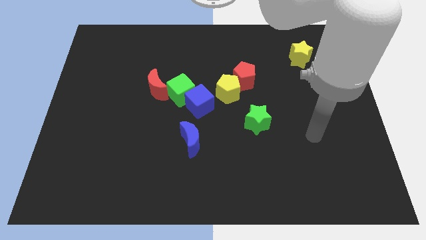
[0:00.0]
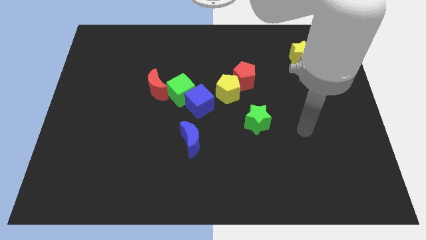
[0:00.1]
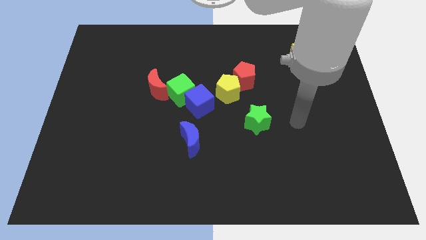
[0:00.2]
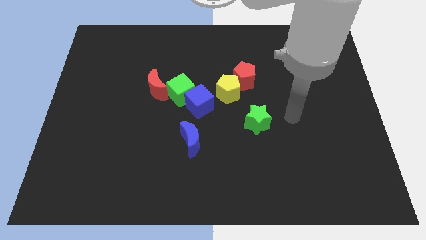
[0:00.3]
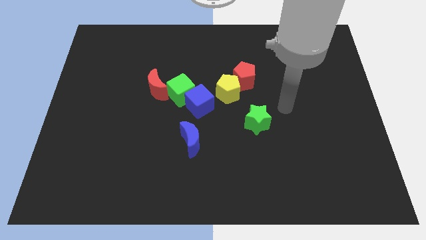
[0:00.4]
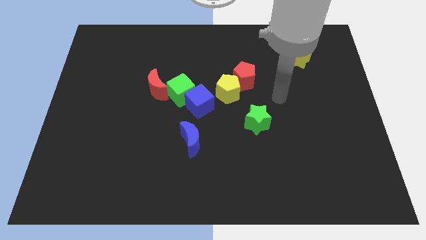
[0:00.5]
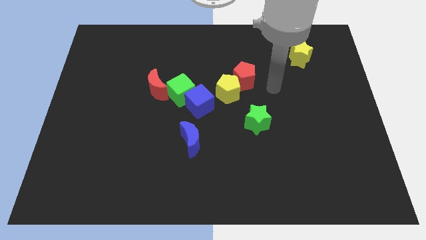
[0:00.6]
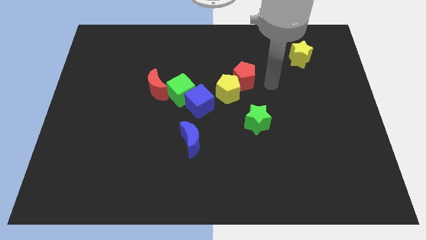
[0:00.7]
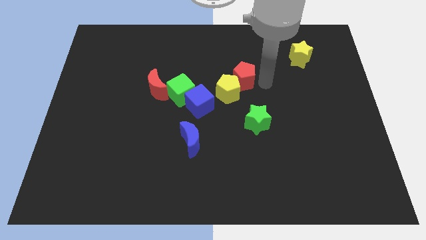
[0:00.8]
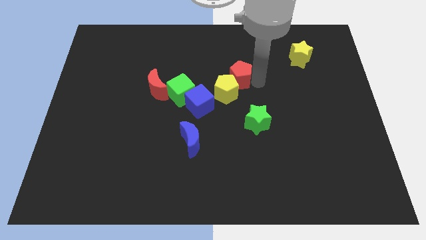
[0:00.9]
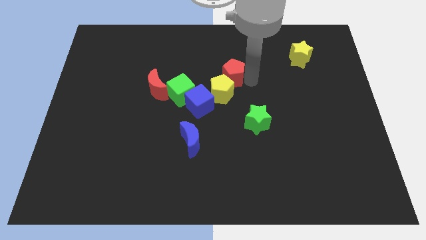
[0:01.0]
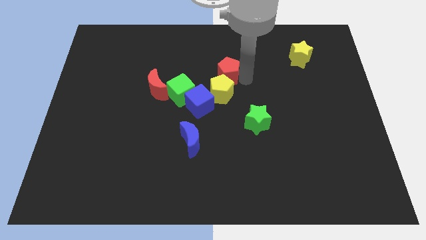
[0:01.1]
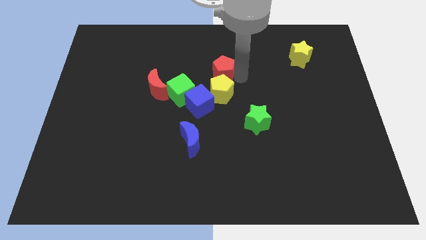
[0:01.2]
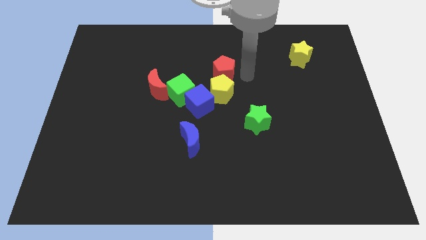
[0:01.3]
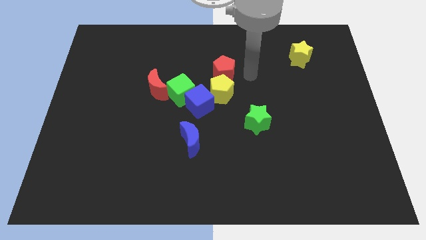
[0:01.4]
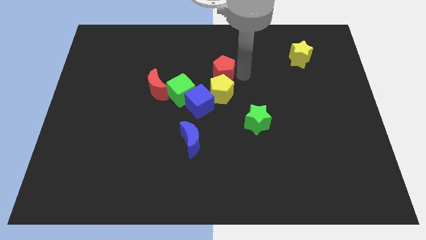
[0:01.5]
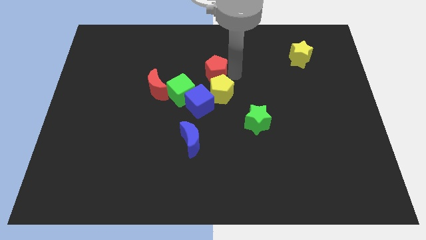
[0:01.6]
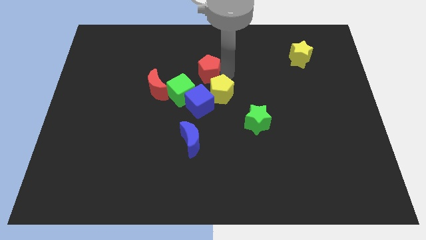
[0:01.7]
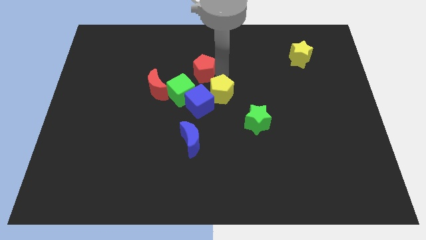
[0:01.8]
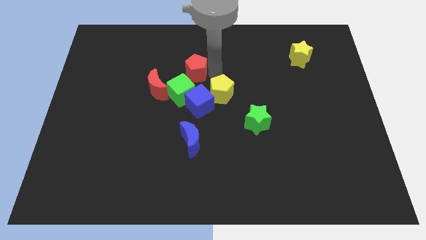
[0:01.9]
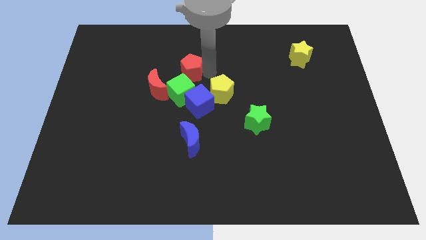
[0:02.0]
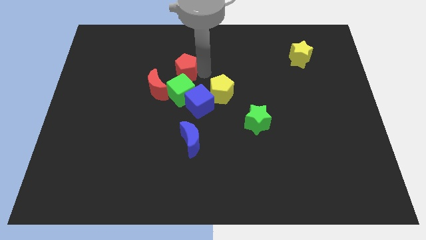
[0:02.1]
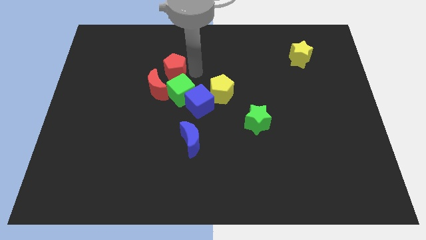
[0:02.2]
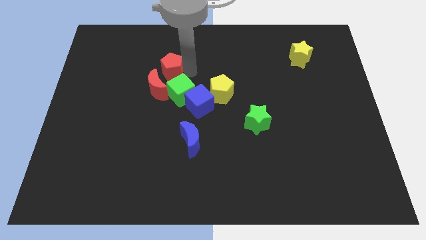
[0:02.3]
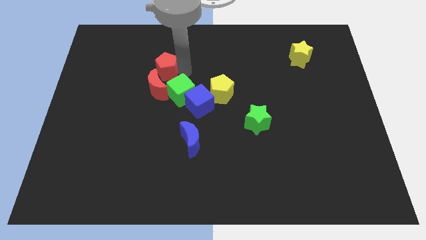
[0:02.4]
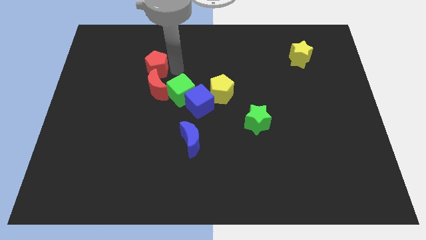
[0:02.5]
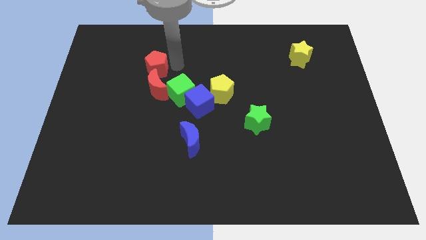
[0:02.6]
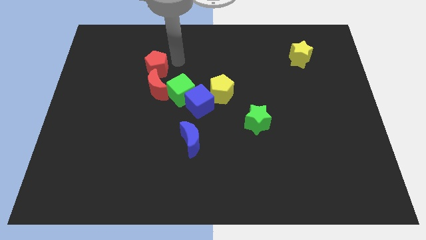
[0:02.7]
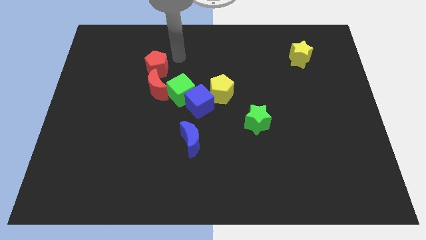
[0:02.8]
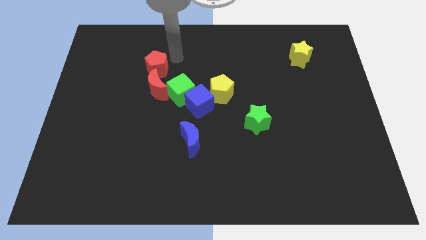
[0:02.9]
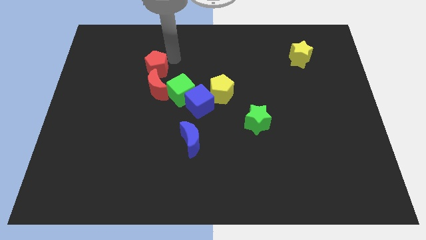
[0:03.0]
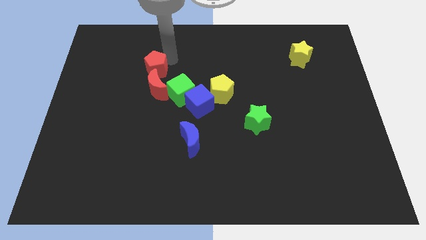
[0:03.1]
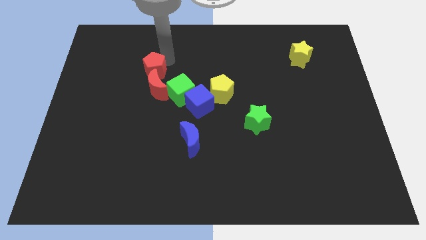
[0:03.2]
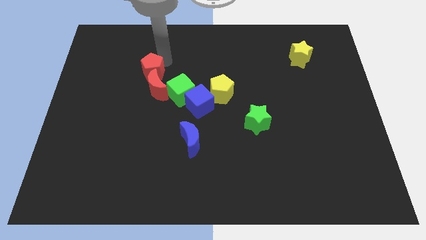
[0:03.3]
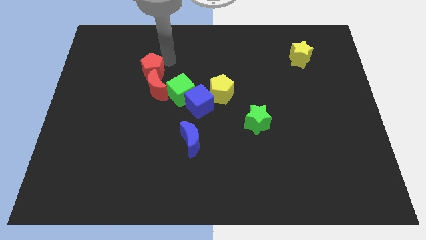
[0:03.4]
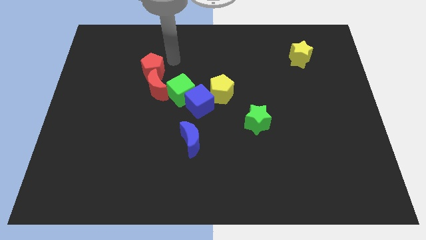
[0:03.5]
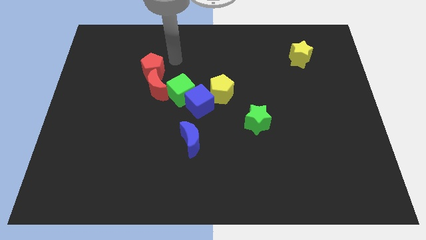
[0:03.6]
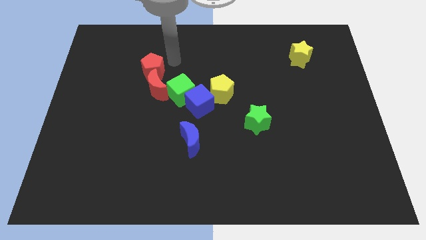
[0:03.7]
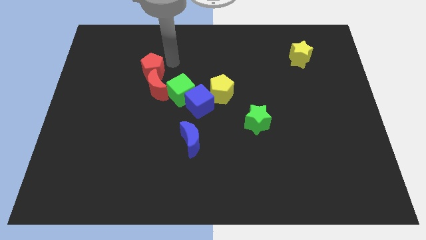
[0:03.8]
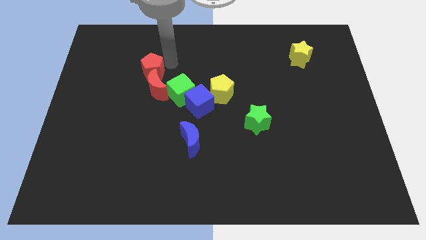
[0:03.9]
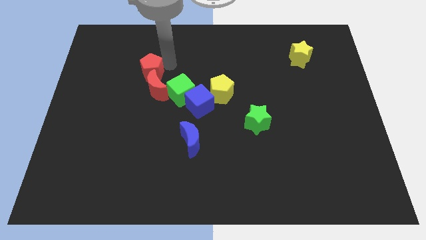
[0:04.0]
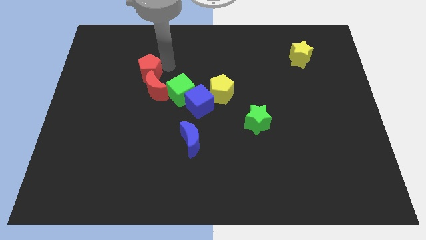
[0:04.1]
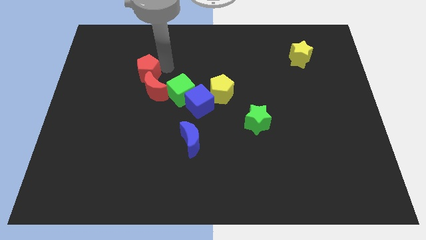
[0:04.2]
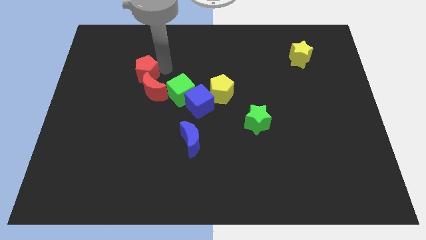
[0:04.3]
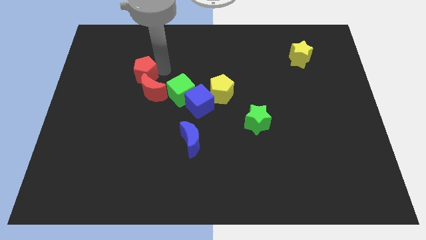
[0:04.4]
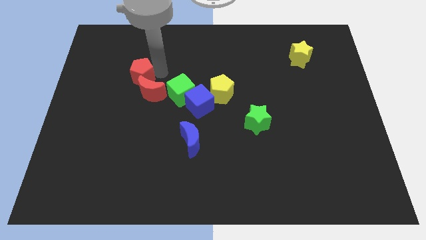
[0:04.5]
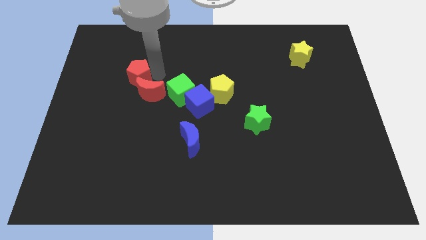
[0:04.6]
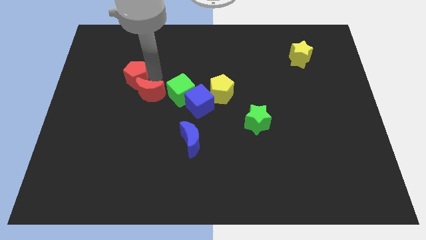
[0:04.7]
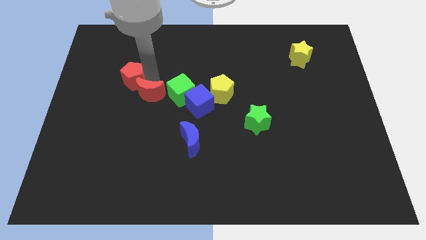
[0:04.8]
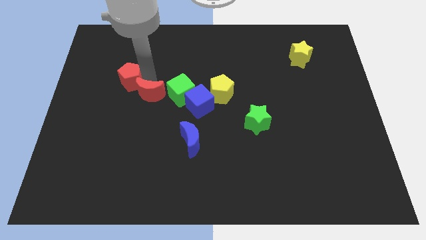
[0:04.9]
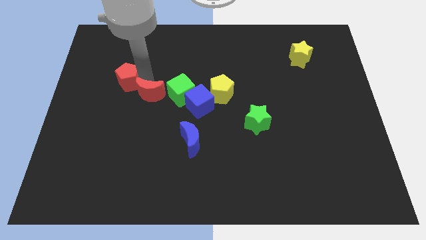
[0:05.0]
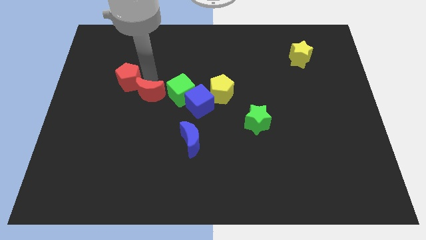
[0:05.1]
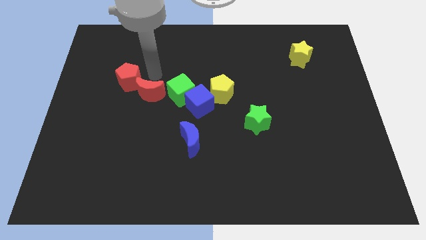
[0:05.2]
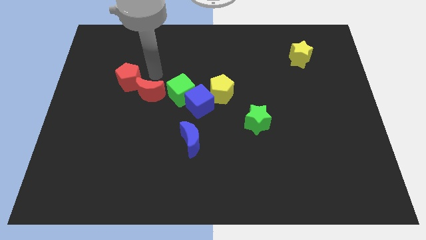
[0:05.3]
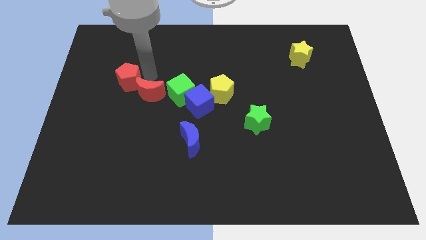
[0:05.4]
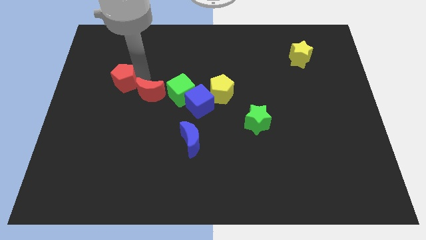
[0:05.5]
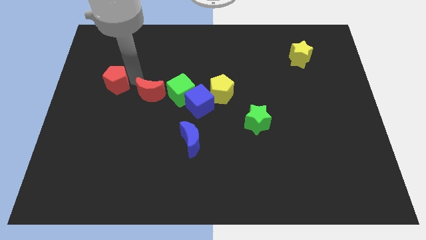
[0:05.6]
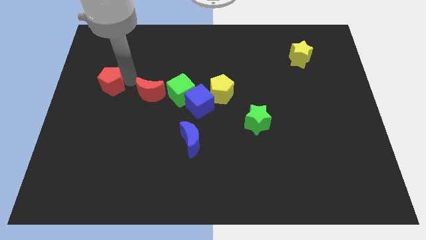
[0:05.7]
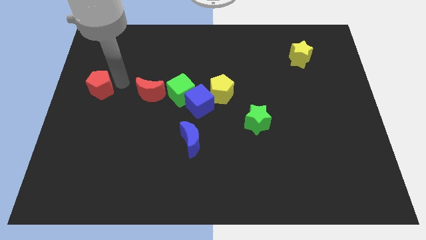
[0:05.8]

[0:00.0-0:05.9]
push the red pentagon to the left side of the board
